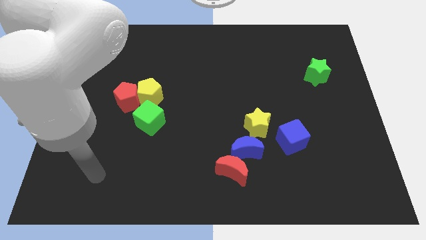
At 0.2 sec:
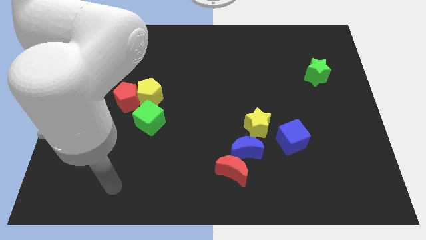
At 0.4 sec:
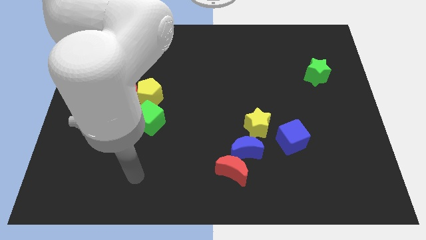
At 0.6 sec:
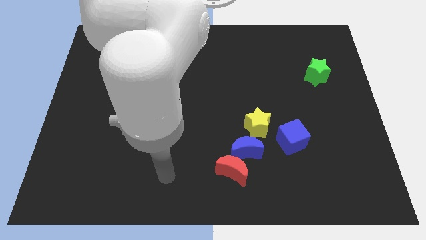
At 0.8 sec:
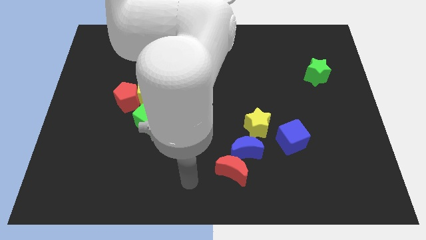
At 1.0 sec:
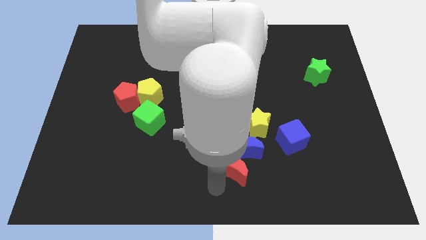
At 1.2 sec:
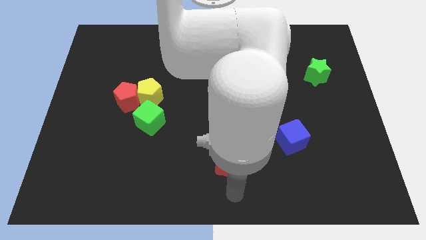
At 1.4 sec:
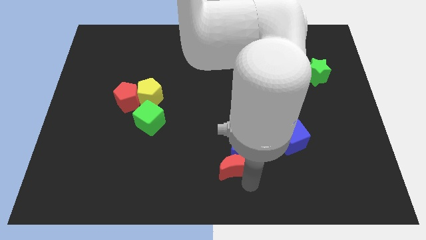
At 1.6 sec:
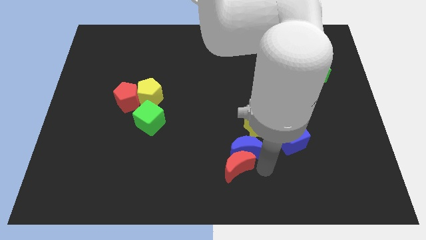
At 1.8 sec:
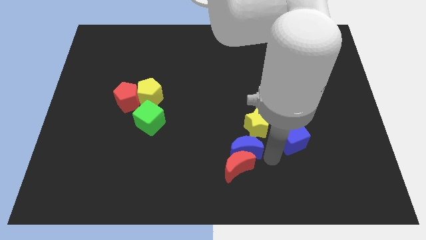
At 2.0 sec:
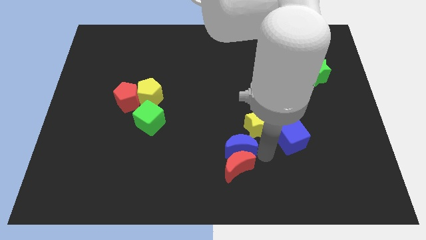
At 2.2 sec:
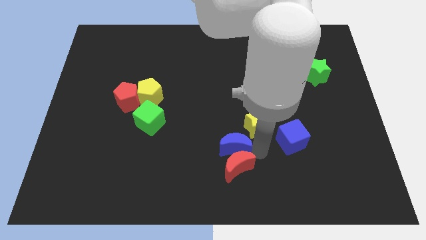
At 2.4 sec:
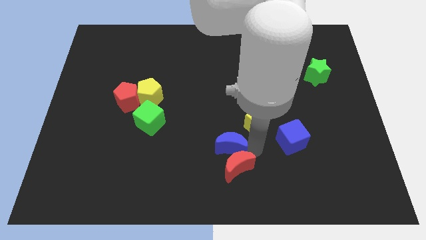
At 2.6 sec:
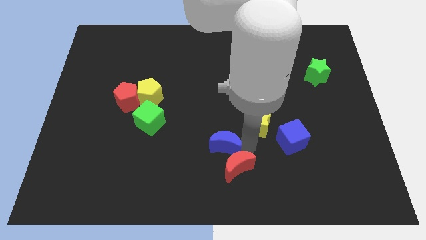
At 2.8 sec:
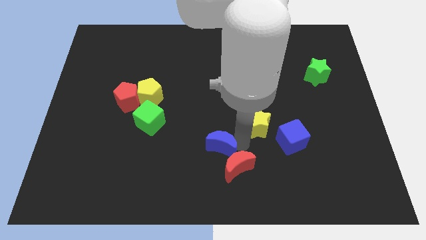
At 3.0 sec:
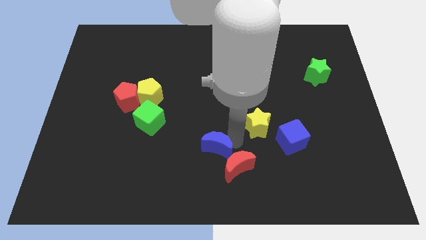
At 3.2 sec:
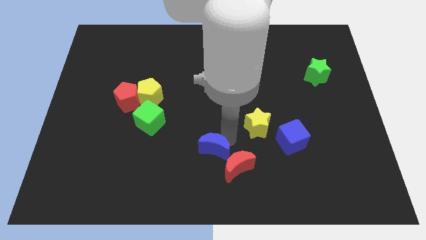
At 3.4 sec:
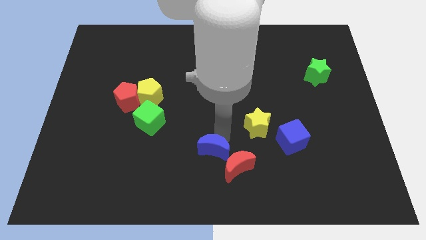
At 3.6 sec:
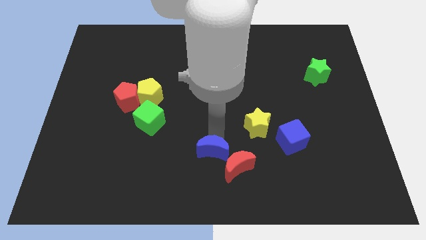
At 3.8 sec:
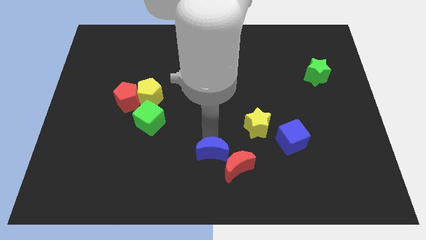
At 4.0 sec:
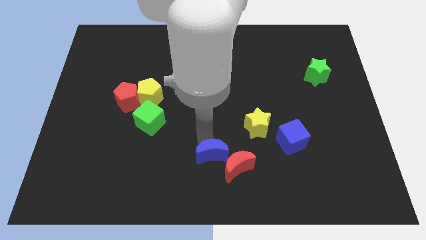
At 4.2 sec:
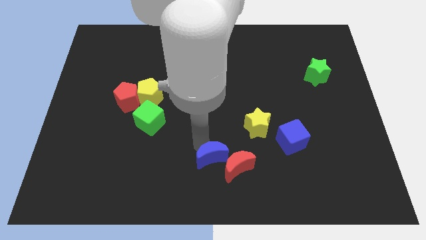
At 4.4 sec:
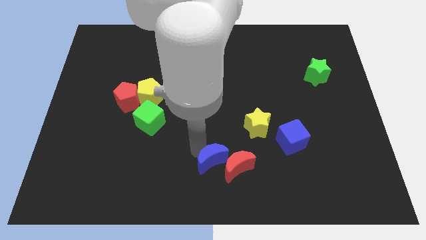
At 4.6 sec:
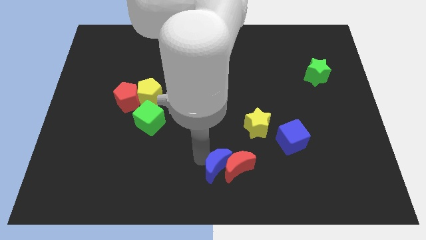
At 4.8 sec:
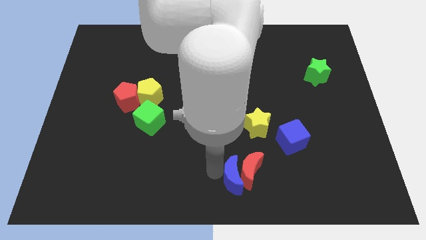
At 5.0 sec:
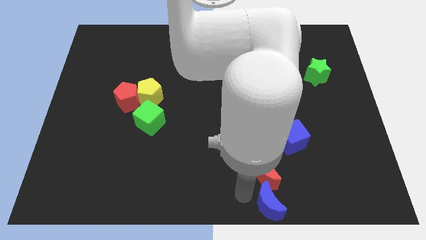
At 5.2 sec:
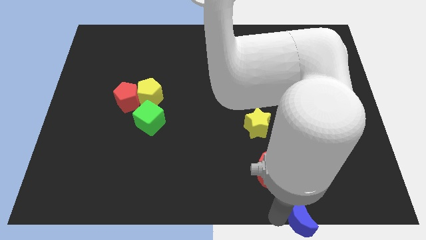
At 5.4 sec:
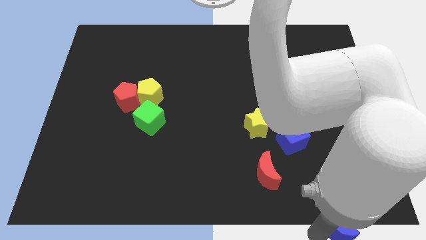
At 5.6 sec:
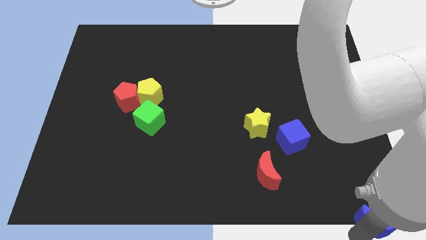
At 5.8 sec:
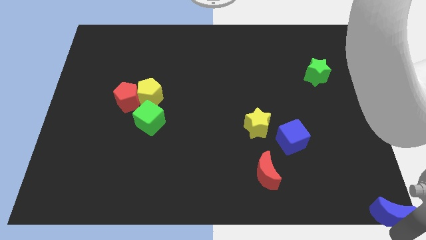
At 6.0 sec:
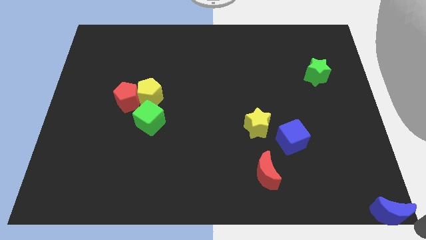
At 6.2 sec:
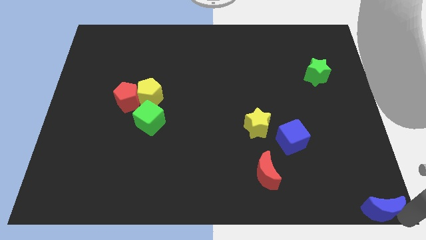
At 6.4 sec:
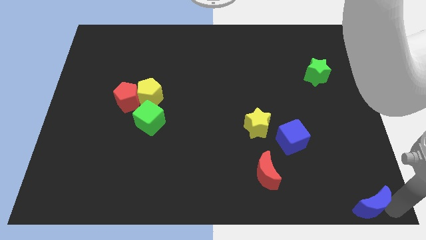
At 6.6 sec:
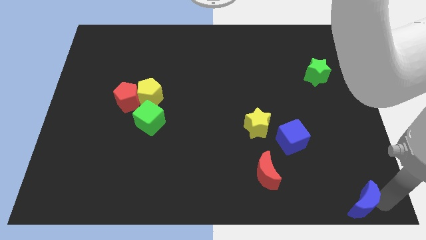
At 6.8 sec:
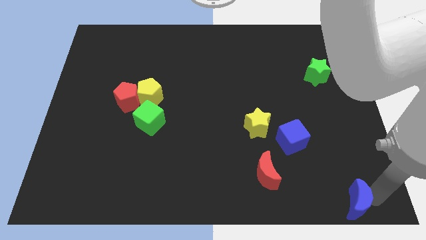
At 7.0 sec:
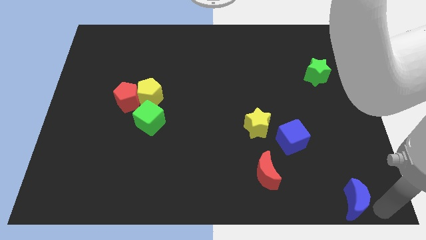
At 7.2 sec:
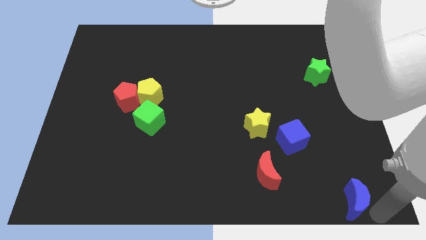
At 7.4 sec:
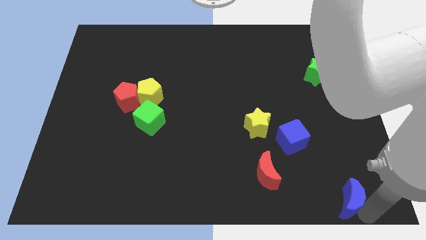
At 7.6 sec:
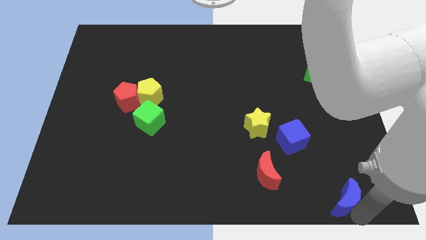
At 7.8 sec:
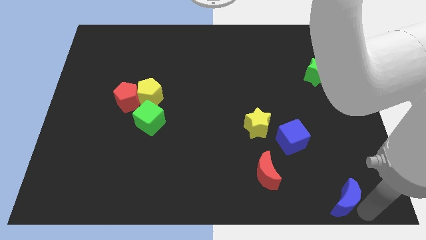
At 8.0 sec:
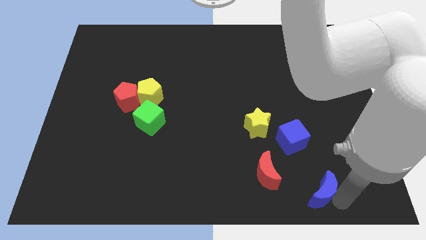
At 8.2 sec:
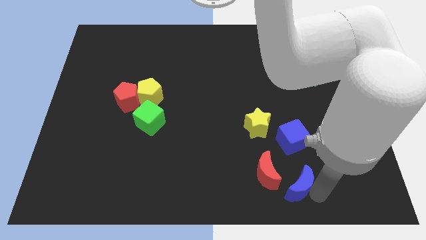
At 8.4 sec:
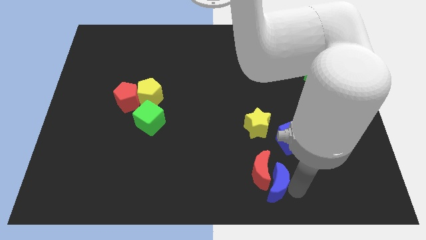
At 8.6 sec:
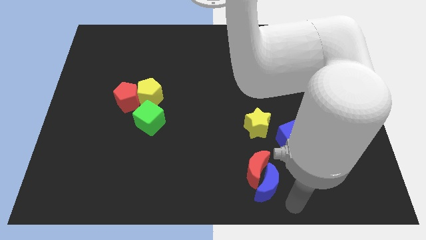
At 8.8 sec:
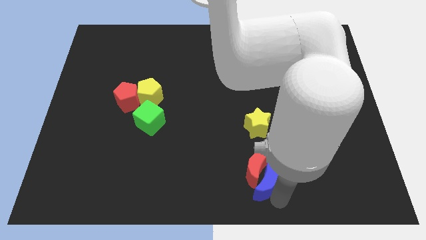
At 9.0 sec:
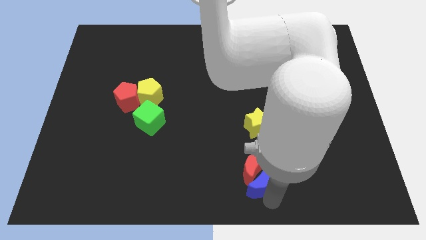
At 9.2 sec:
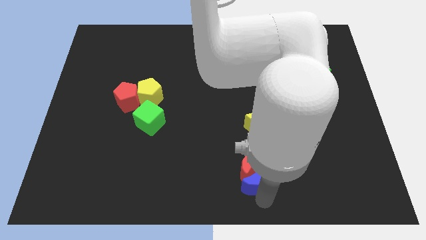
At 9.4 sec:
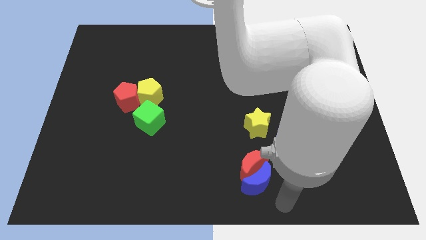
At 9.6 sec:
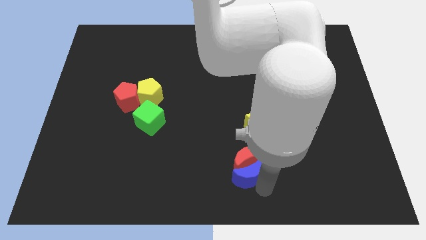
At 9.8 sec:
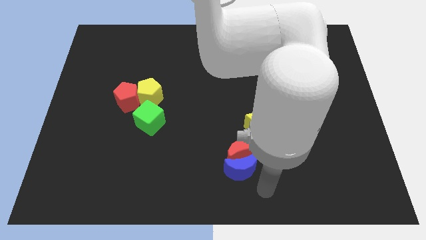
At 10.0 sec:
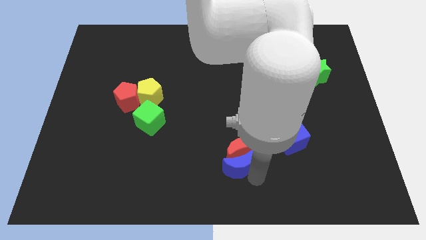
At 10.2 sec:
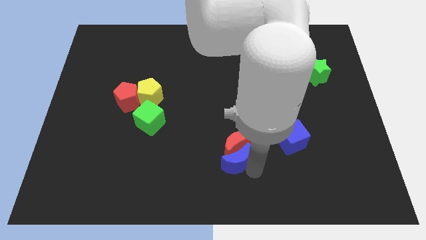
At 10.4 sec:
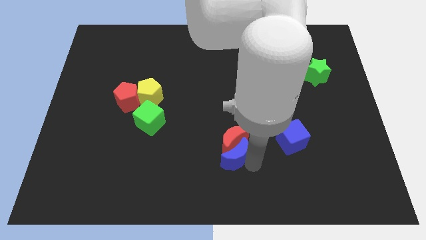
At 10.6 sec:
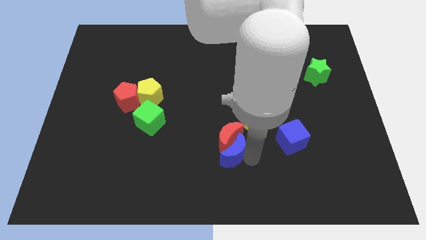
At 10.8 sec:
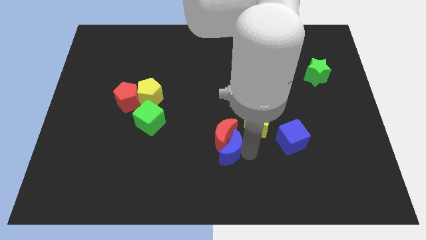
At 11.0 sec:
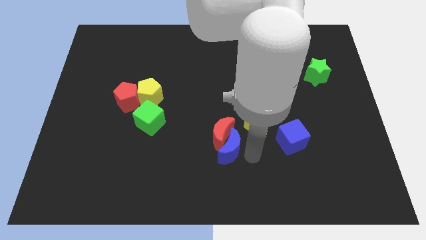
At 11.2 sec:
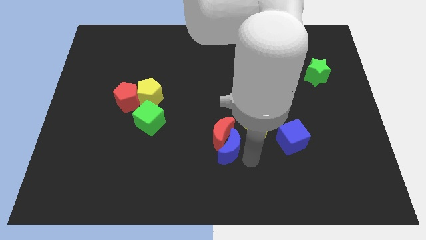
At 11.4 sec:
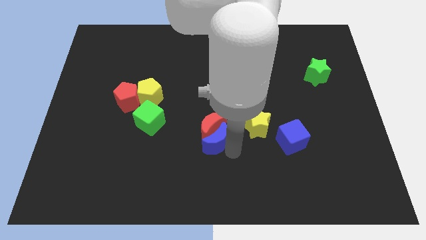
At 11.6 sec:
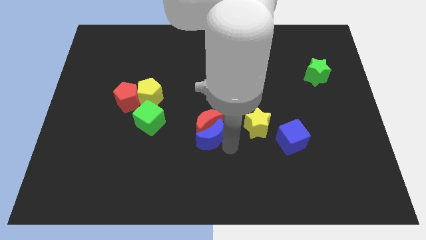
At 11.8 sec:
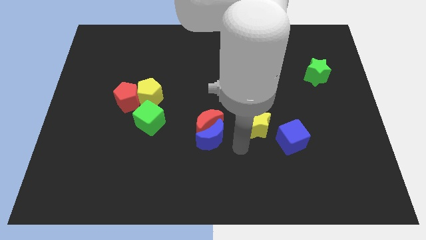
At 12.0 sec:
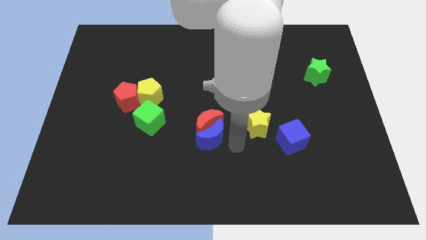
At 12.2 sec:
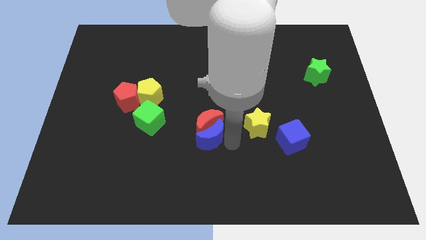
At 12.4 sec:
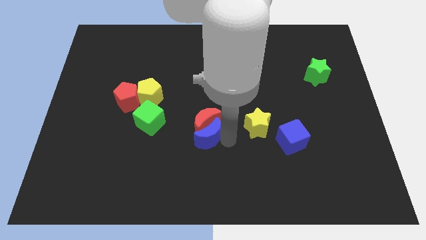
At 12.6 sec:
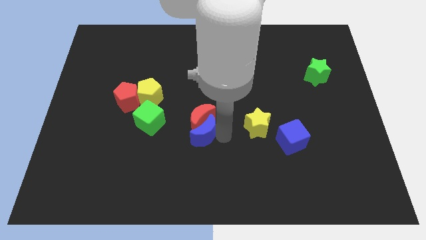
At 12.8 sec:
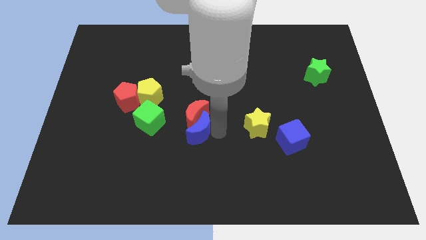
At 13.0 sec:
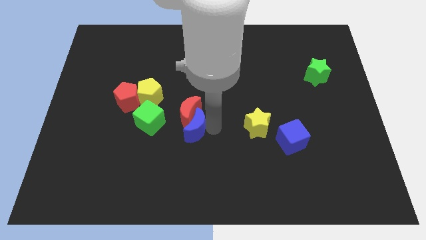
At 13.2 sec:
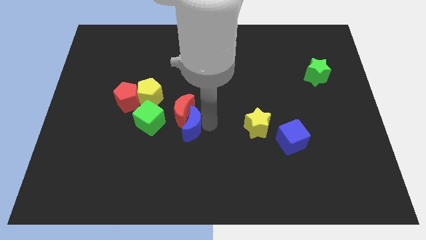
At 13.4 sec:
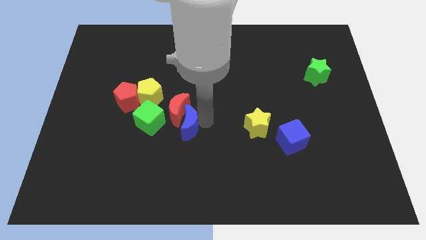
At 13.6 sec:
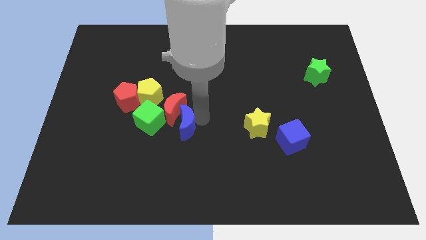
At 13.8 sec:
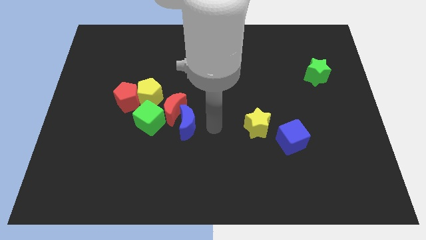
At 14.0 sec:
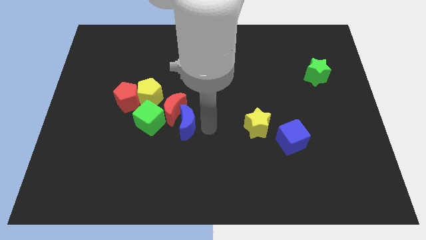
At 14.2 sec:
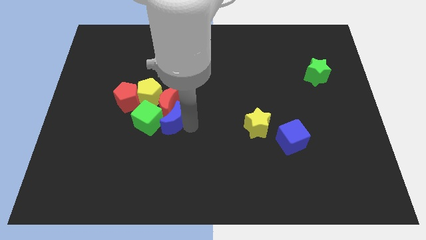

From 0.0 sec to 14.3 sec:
slide the blue moon next to the green cube

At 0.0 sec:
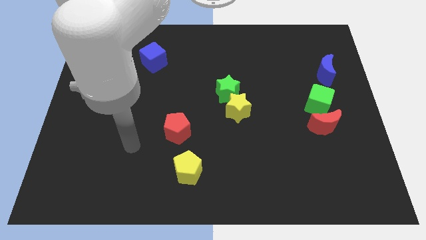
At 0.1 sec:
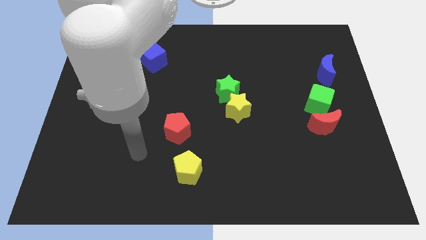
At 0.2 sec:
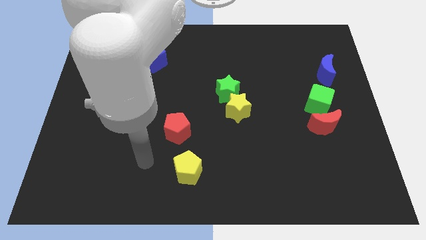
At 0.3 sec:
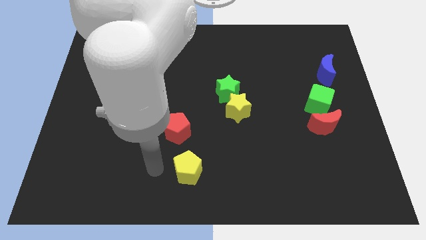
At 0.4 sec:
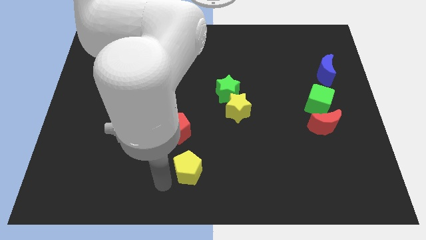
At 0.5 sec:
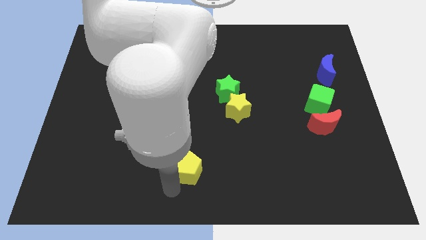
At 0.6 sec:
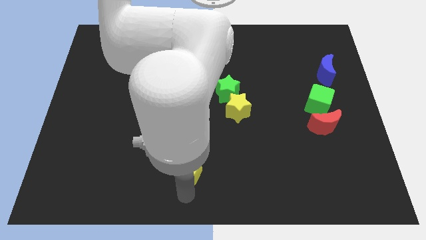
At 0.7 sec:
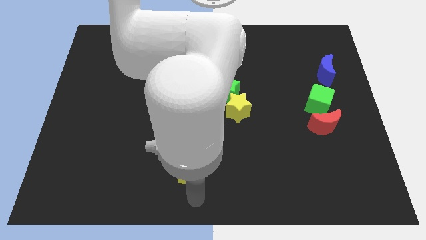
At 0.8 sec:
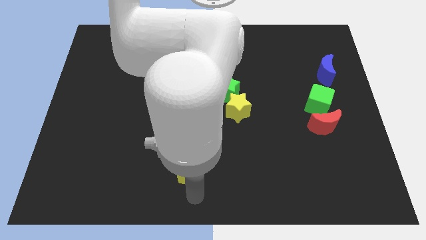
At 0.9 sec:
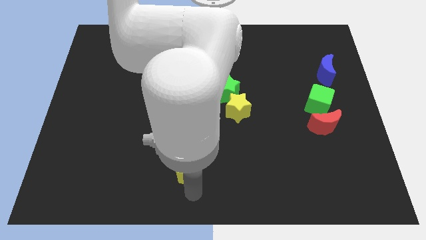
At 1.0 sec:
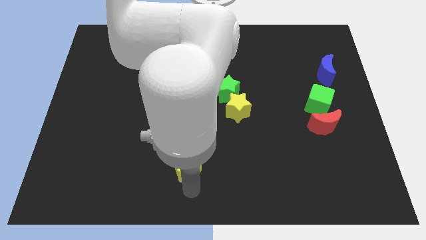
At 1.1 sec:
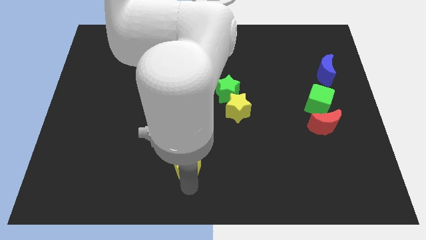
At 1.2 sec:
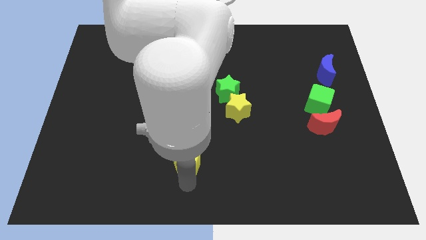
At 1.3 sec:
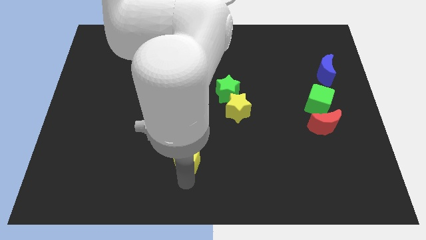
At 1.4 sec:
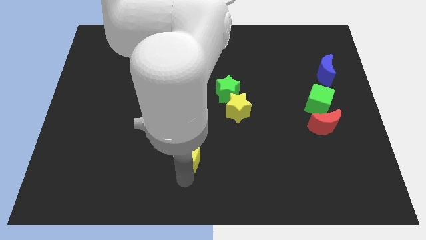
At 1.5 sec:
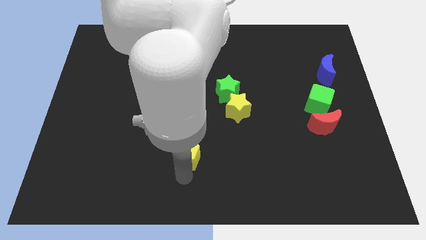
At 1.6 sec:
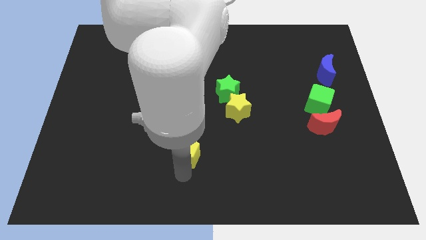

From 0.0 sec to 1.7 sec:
push the yellow pentagon close to the red pentagon
